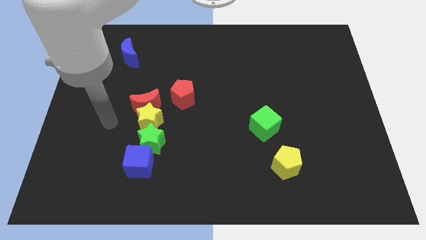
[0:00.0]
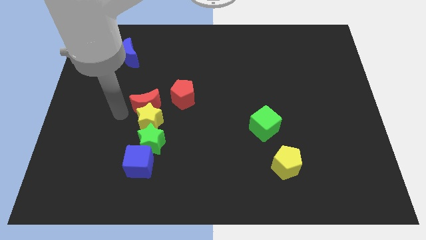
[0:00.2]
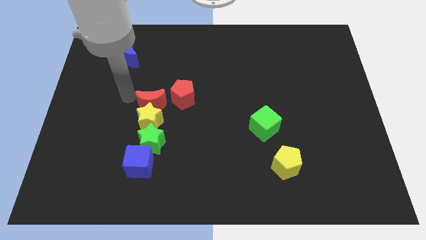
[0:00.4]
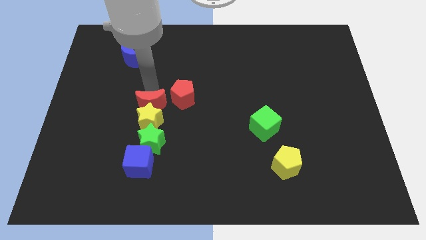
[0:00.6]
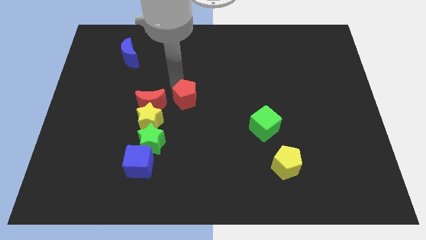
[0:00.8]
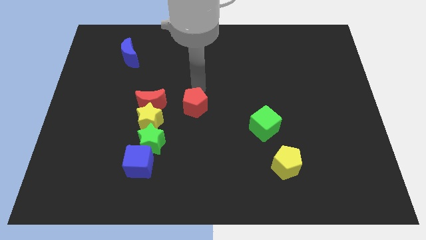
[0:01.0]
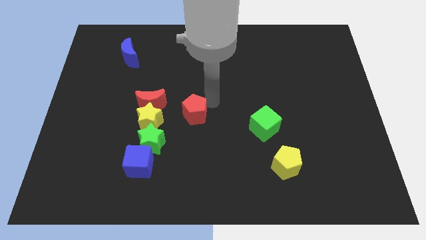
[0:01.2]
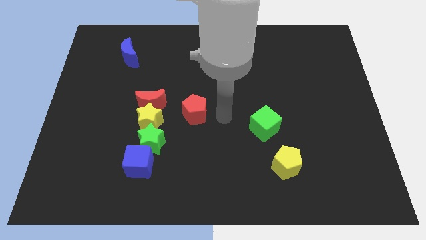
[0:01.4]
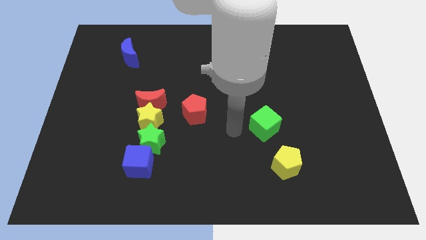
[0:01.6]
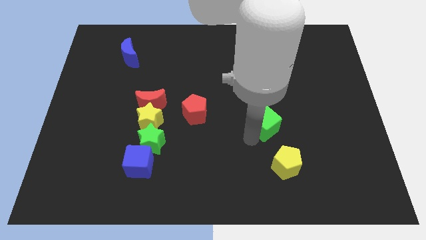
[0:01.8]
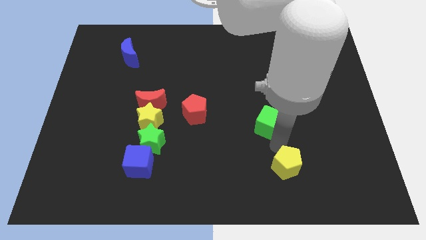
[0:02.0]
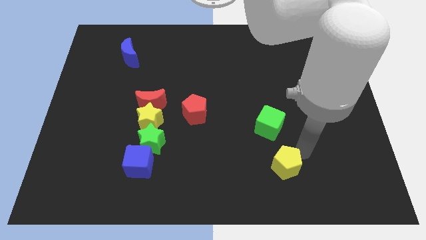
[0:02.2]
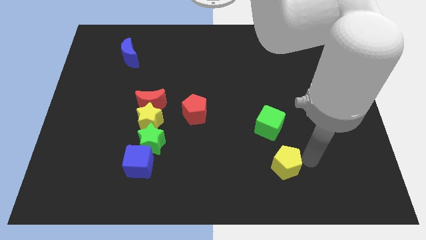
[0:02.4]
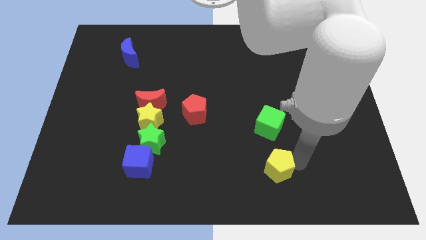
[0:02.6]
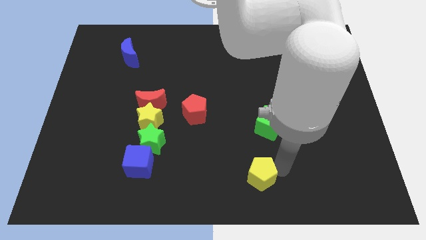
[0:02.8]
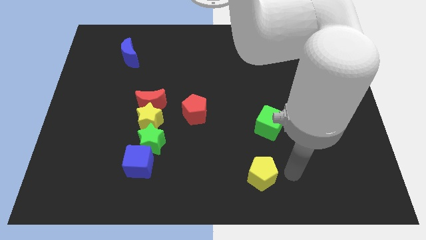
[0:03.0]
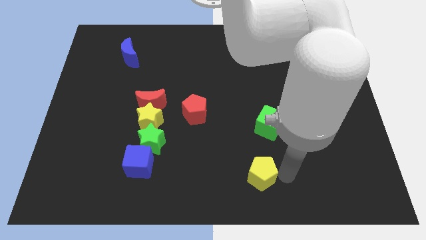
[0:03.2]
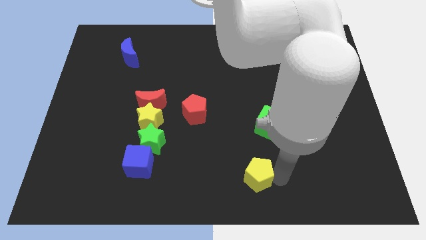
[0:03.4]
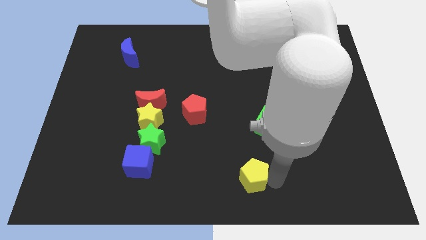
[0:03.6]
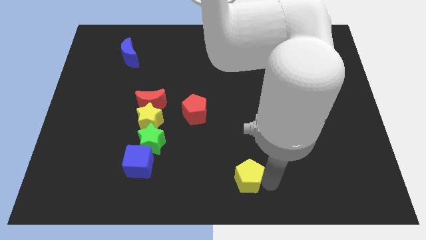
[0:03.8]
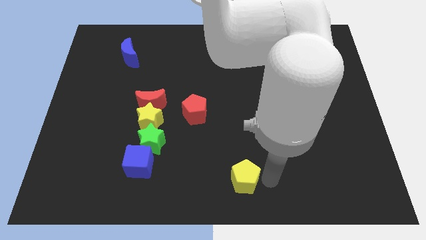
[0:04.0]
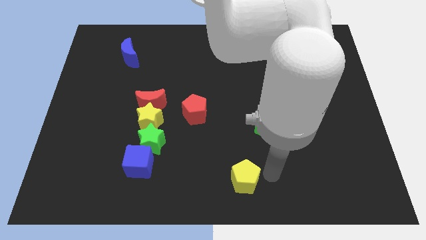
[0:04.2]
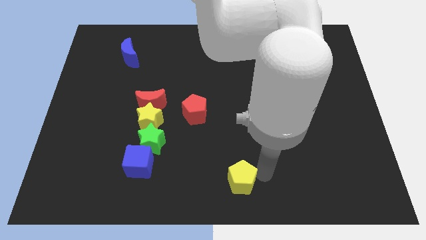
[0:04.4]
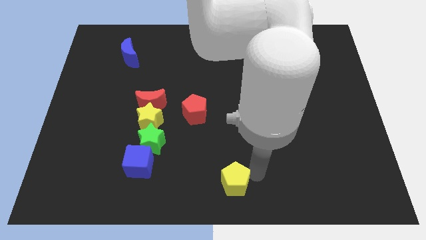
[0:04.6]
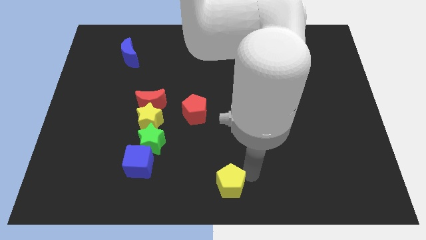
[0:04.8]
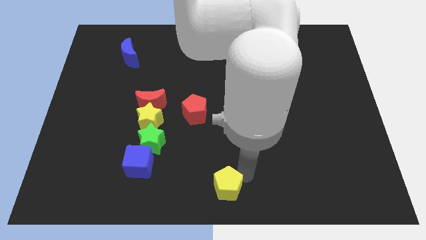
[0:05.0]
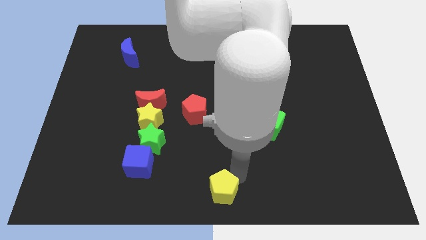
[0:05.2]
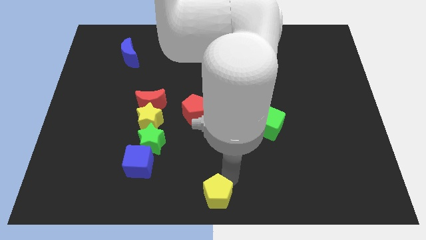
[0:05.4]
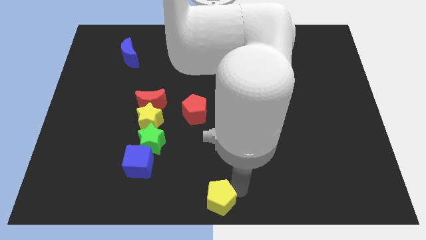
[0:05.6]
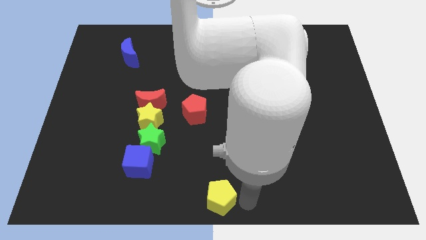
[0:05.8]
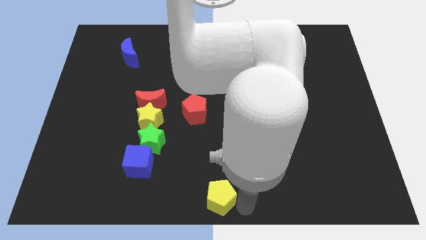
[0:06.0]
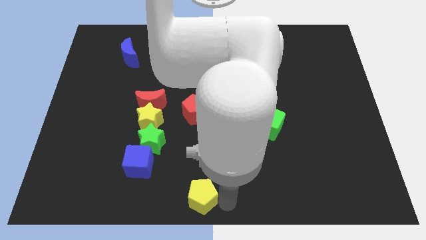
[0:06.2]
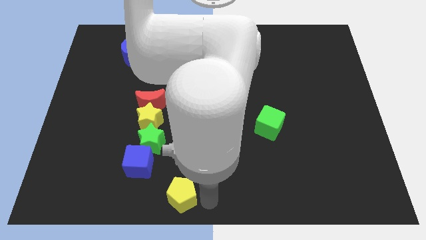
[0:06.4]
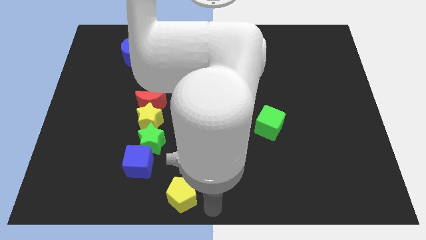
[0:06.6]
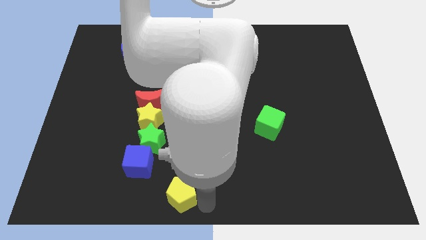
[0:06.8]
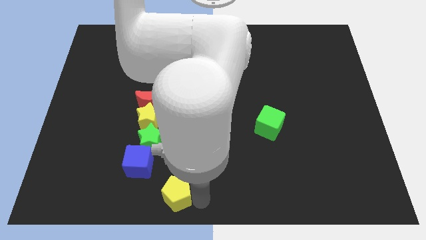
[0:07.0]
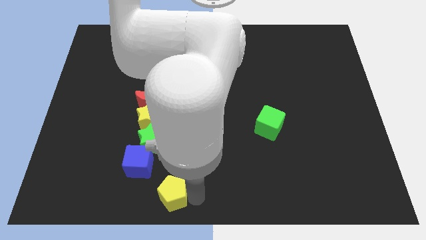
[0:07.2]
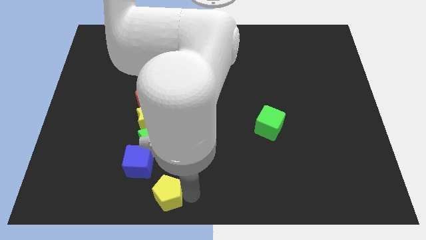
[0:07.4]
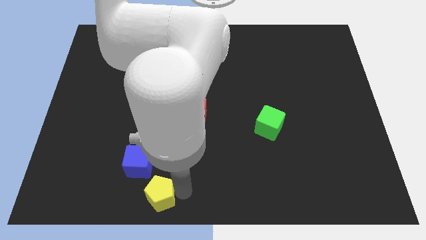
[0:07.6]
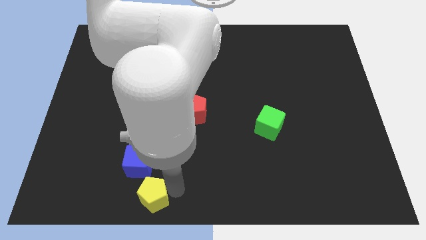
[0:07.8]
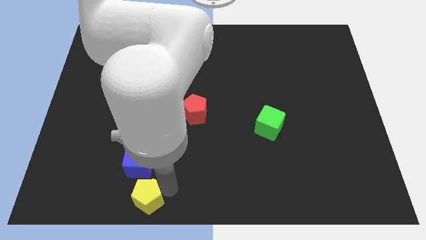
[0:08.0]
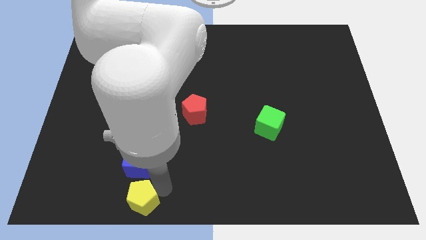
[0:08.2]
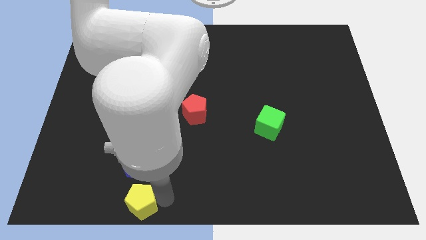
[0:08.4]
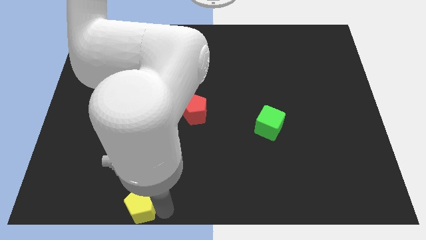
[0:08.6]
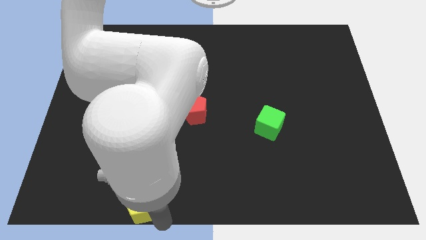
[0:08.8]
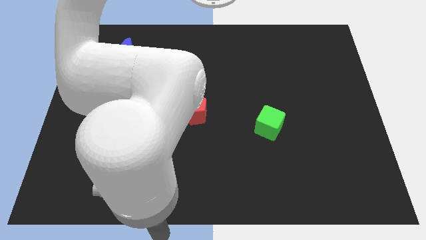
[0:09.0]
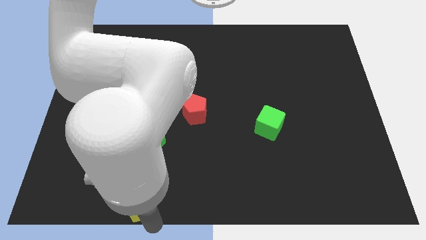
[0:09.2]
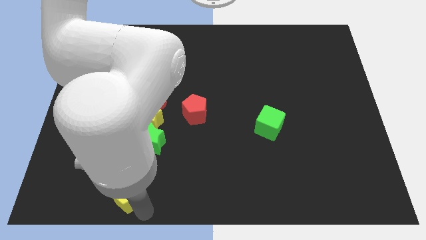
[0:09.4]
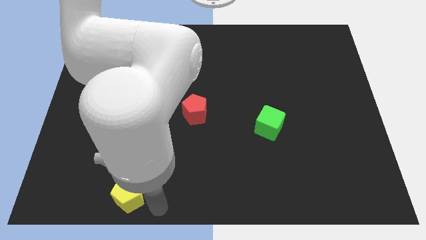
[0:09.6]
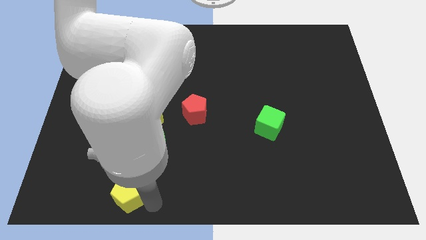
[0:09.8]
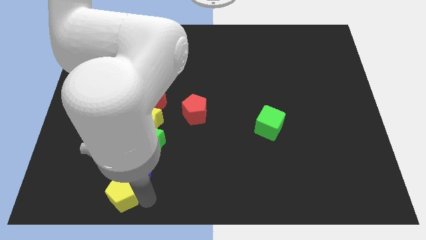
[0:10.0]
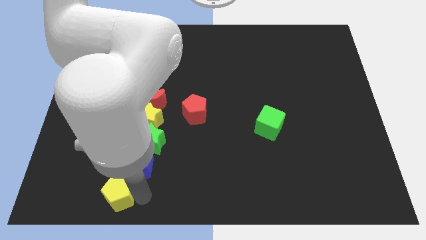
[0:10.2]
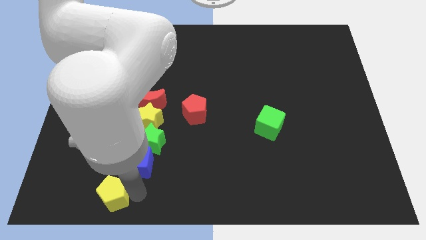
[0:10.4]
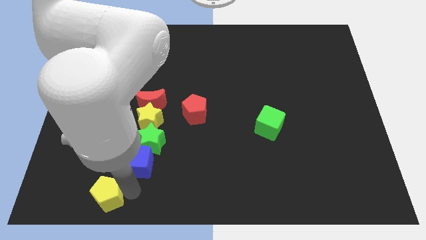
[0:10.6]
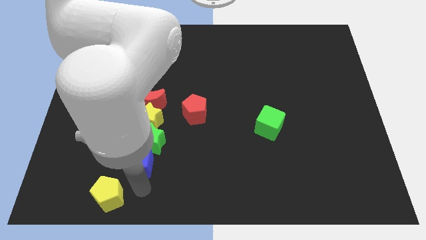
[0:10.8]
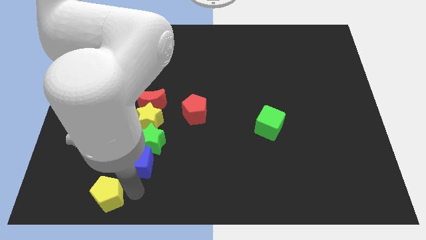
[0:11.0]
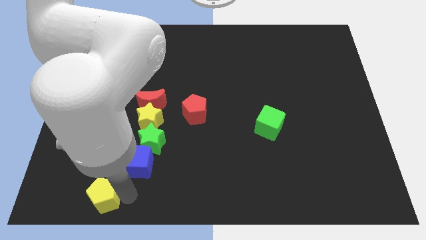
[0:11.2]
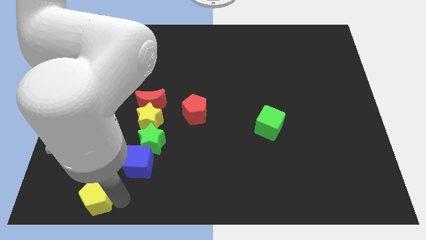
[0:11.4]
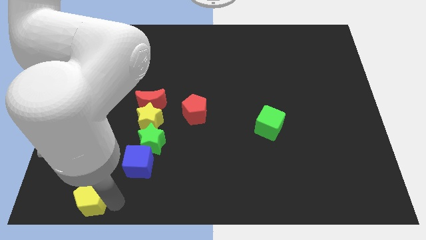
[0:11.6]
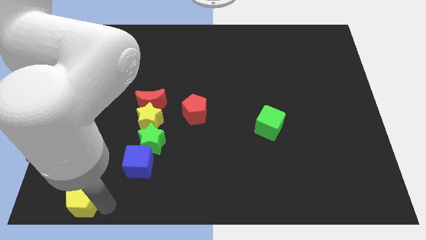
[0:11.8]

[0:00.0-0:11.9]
move the yellow pentagon to the bottom left of the board
